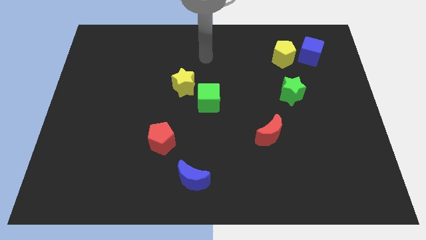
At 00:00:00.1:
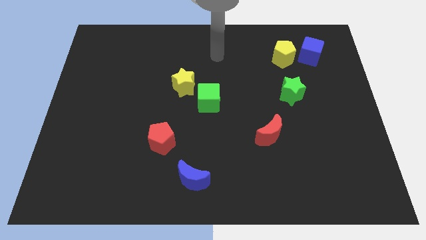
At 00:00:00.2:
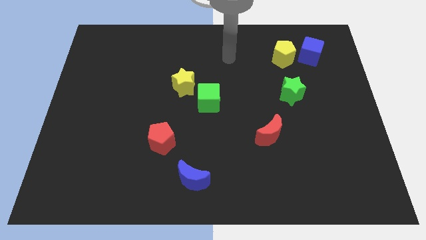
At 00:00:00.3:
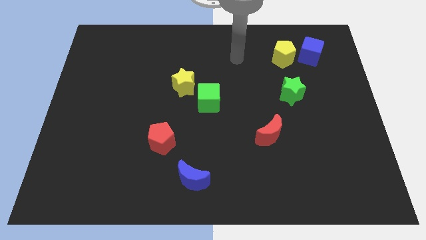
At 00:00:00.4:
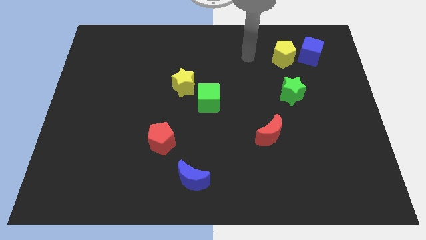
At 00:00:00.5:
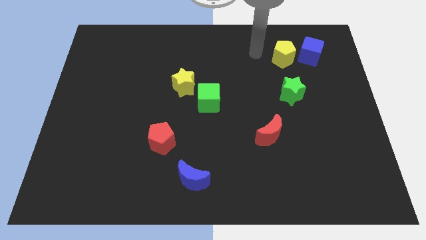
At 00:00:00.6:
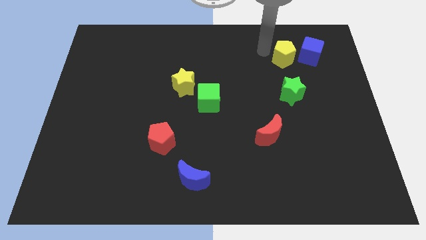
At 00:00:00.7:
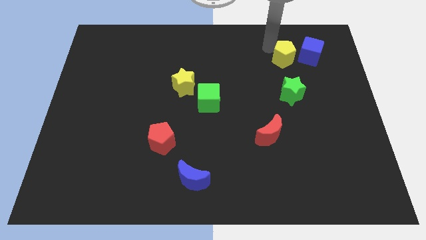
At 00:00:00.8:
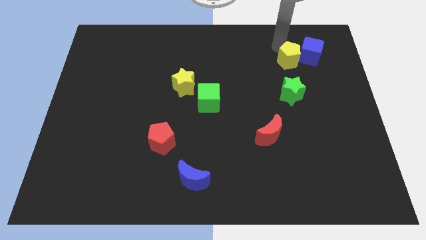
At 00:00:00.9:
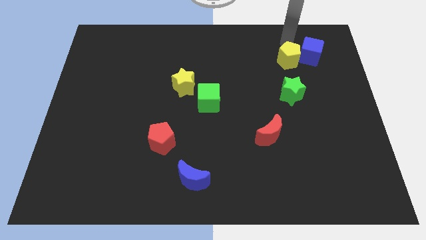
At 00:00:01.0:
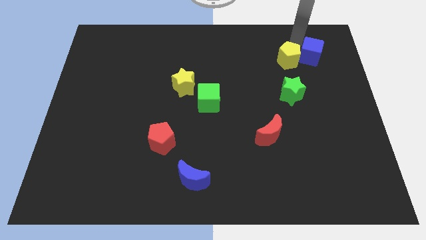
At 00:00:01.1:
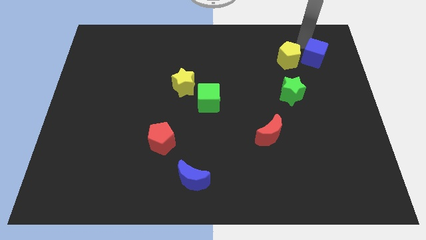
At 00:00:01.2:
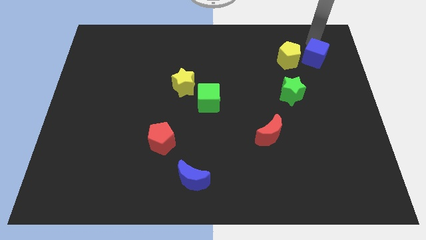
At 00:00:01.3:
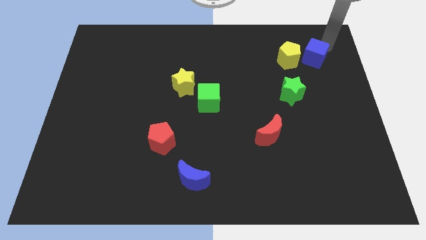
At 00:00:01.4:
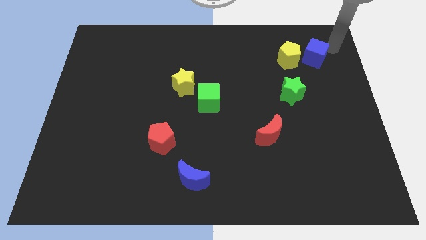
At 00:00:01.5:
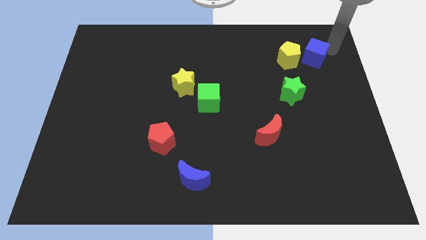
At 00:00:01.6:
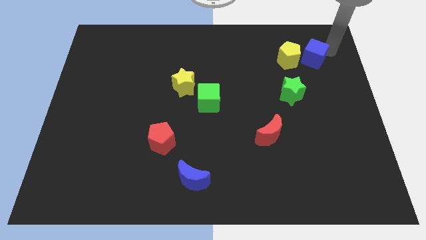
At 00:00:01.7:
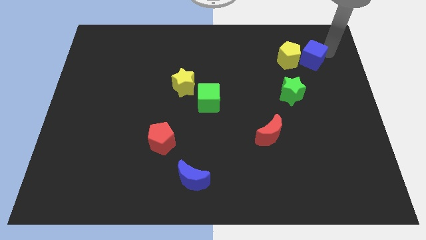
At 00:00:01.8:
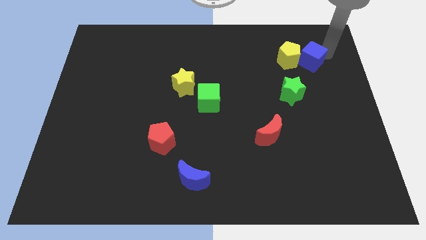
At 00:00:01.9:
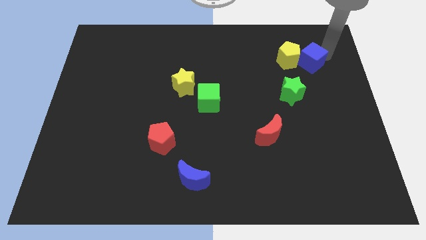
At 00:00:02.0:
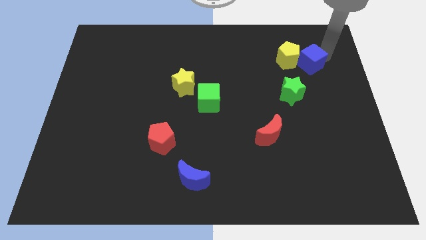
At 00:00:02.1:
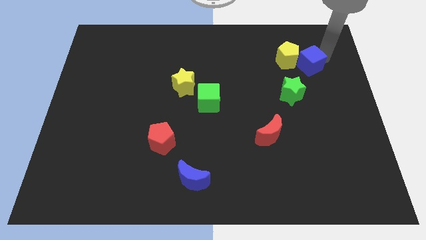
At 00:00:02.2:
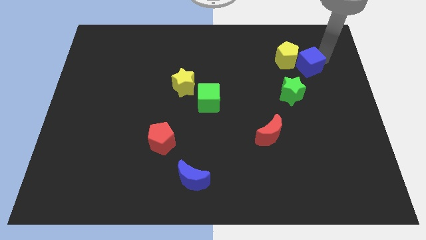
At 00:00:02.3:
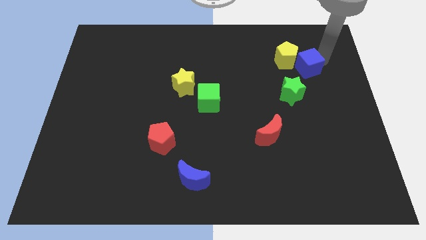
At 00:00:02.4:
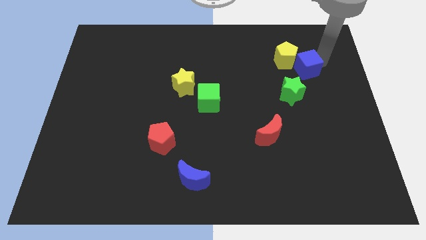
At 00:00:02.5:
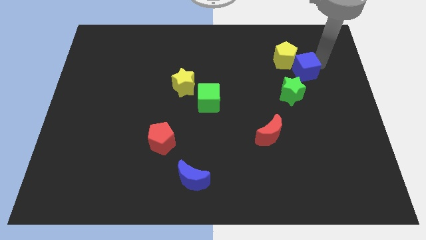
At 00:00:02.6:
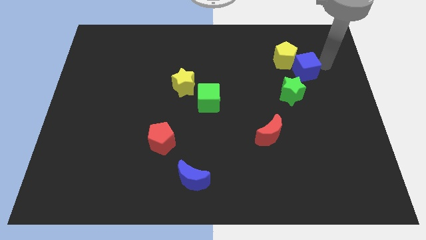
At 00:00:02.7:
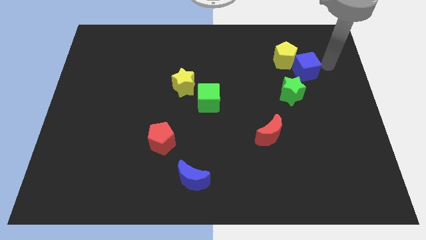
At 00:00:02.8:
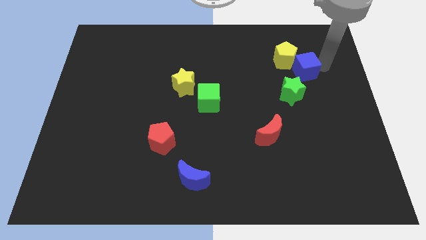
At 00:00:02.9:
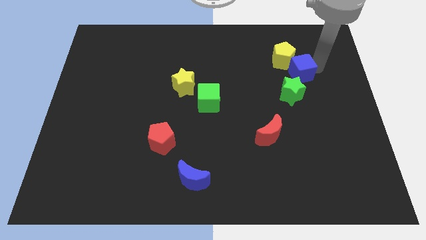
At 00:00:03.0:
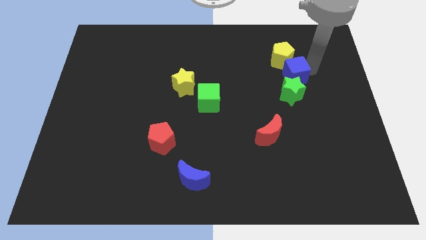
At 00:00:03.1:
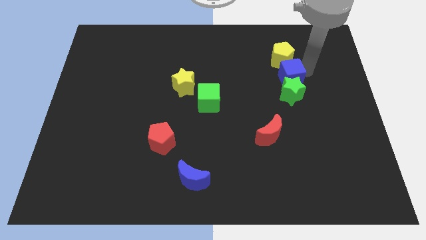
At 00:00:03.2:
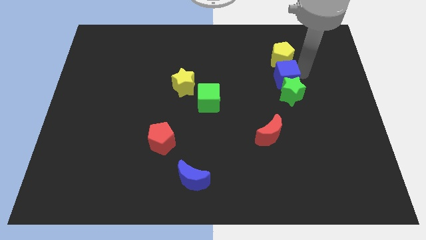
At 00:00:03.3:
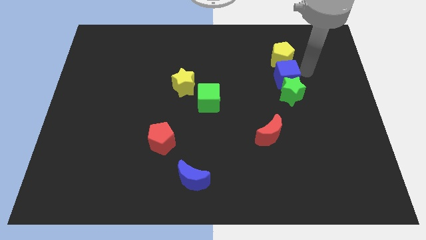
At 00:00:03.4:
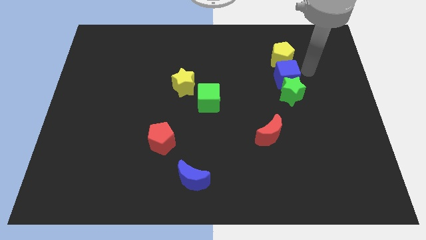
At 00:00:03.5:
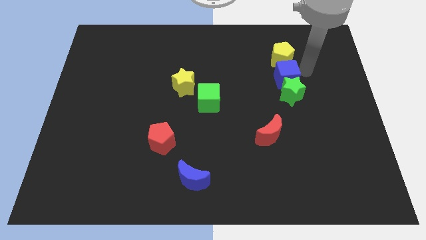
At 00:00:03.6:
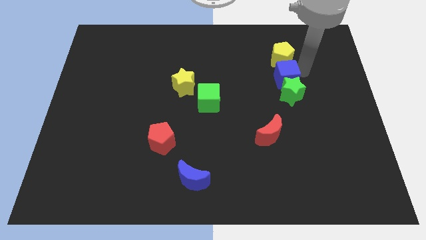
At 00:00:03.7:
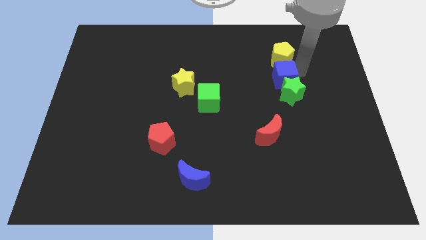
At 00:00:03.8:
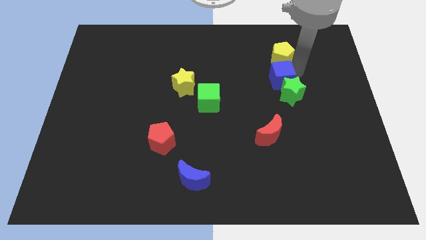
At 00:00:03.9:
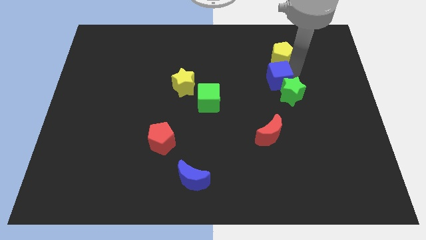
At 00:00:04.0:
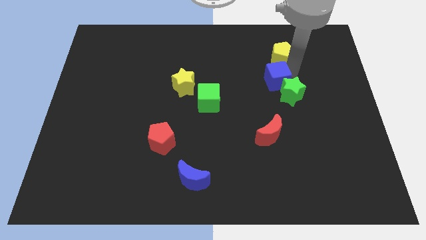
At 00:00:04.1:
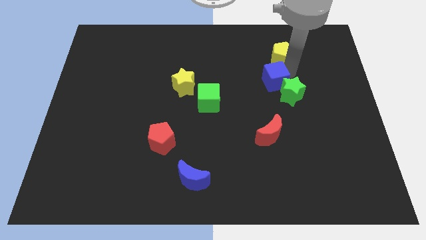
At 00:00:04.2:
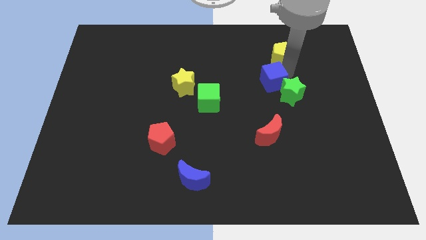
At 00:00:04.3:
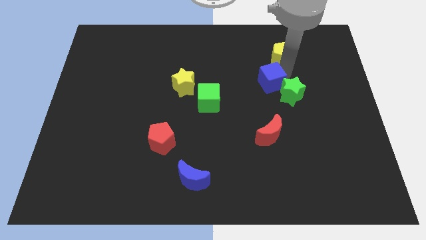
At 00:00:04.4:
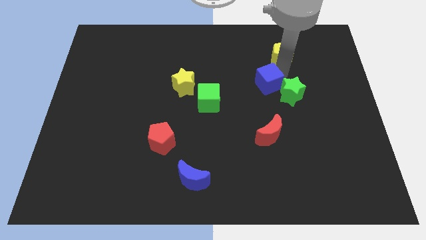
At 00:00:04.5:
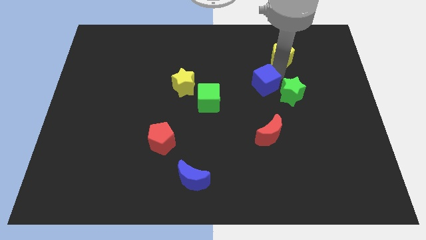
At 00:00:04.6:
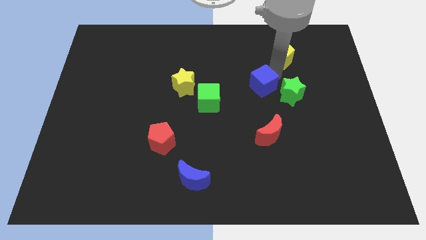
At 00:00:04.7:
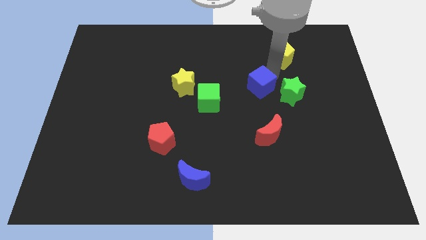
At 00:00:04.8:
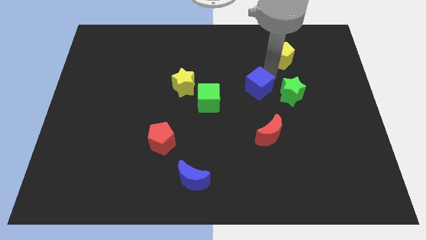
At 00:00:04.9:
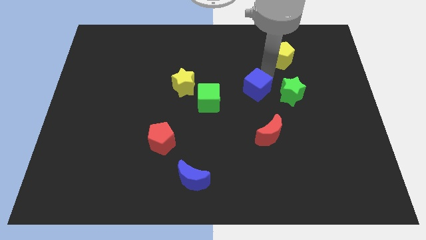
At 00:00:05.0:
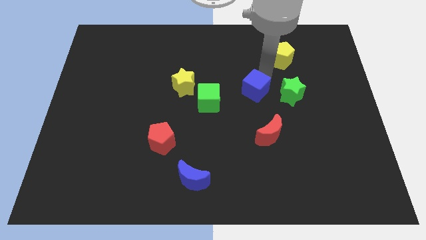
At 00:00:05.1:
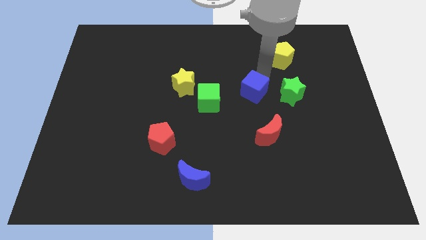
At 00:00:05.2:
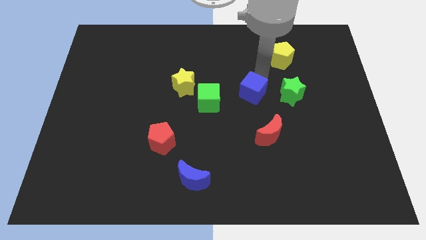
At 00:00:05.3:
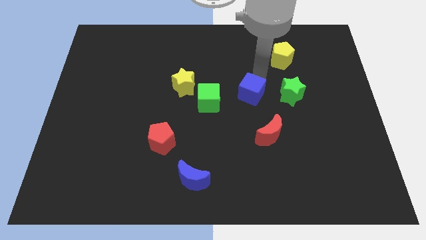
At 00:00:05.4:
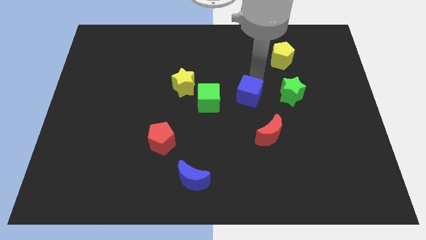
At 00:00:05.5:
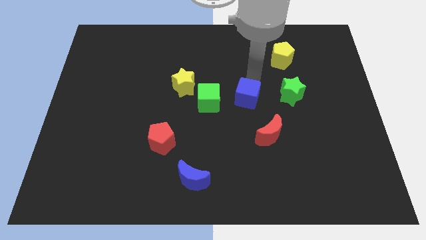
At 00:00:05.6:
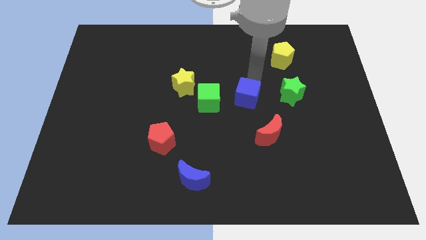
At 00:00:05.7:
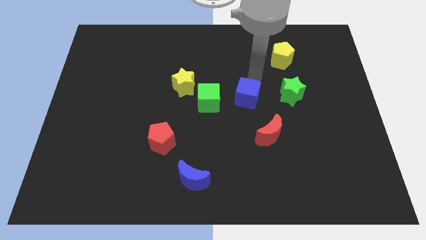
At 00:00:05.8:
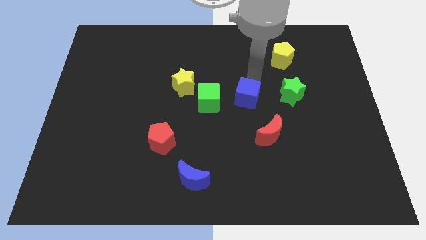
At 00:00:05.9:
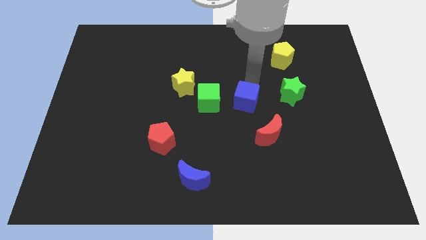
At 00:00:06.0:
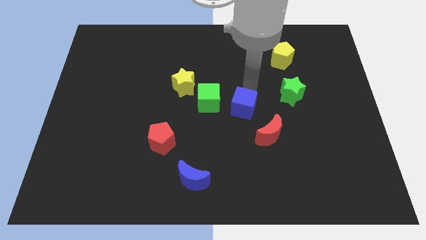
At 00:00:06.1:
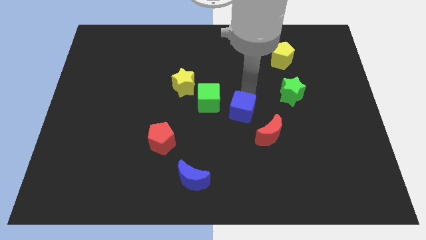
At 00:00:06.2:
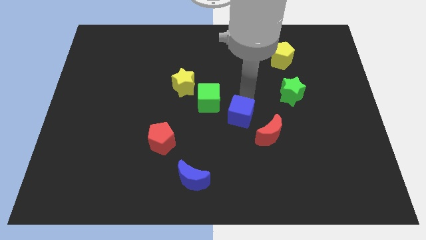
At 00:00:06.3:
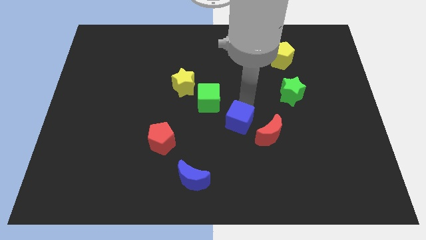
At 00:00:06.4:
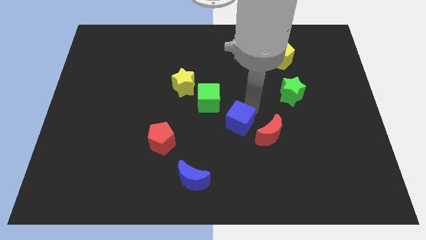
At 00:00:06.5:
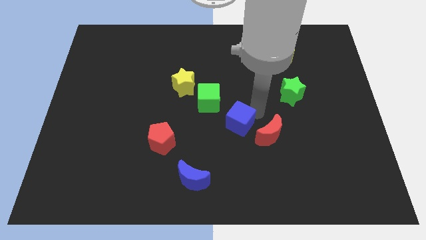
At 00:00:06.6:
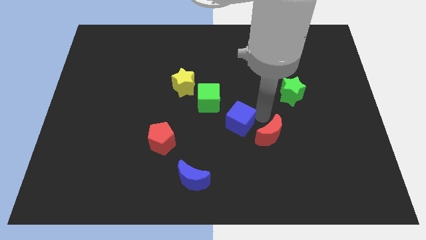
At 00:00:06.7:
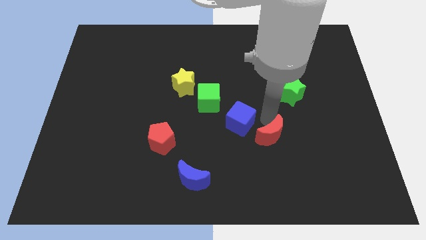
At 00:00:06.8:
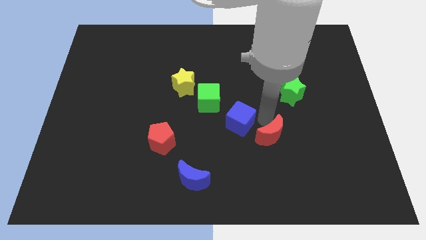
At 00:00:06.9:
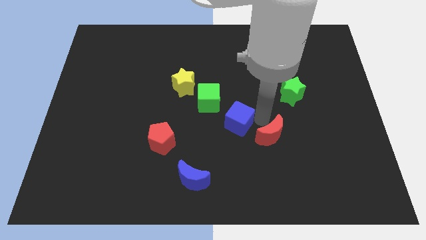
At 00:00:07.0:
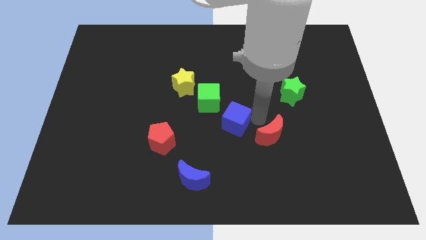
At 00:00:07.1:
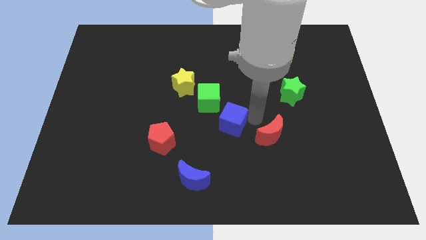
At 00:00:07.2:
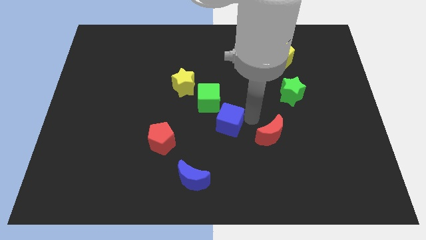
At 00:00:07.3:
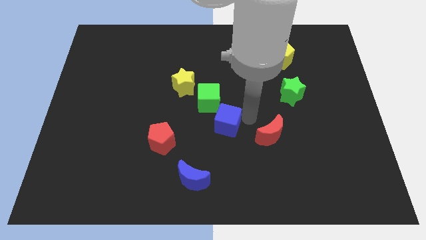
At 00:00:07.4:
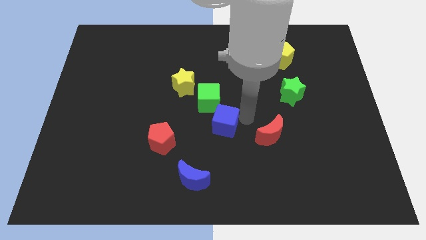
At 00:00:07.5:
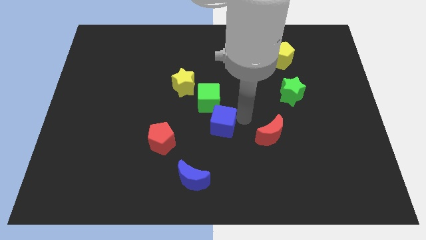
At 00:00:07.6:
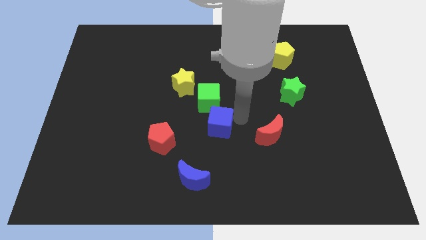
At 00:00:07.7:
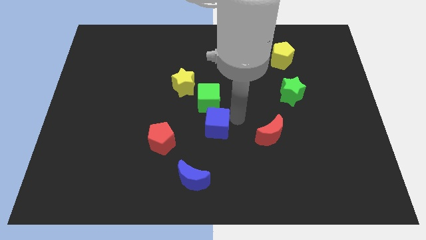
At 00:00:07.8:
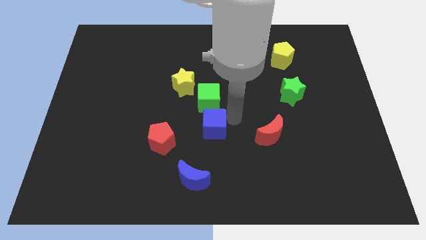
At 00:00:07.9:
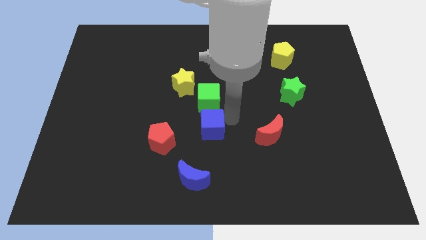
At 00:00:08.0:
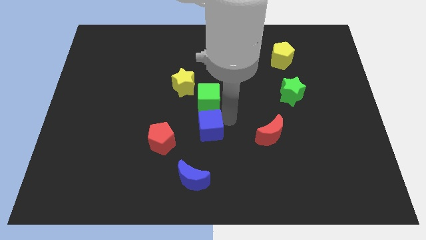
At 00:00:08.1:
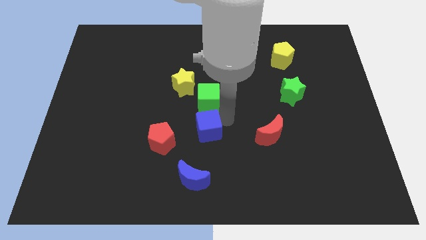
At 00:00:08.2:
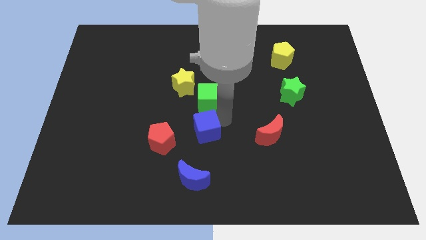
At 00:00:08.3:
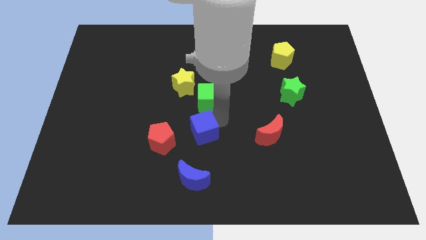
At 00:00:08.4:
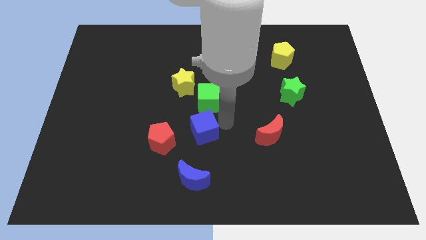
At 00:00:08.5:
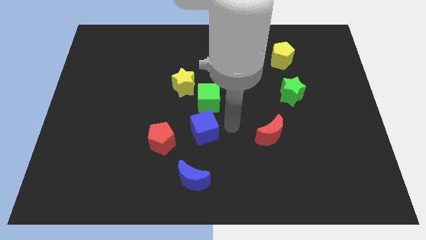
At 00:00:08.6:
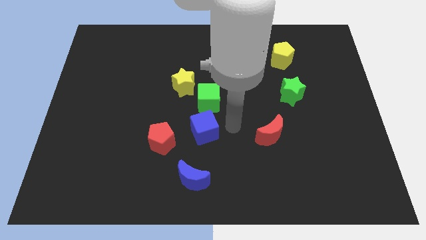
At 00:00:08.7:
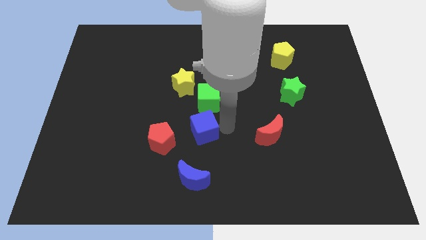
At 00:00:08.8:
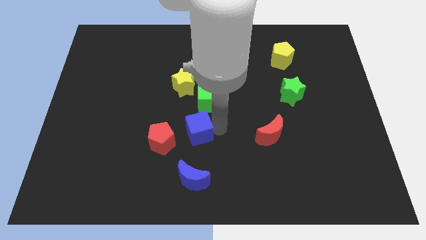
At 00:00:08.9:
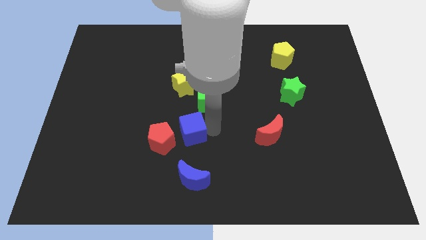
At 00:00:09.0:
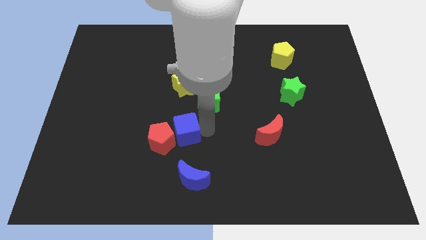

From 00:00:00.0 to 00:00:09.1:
move the blue cube next to the red pentagon
